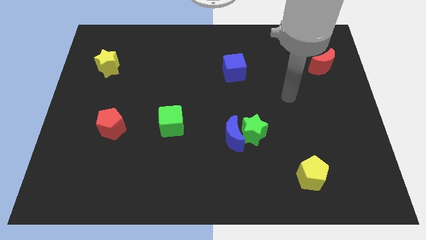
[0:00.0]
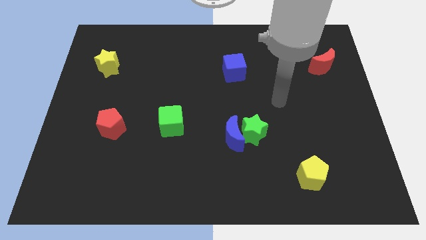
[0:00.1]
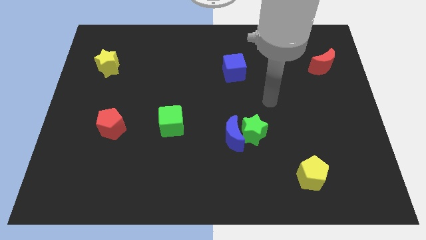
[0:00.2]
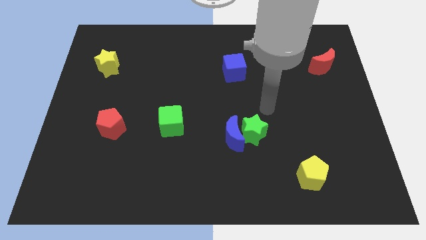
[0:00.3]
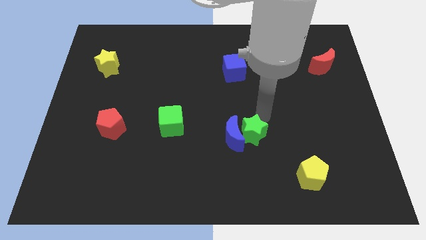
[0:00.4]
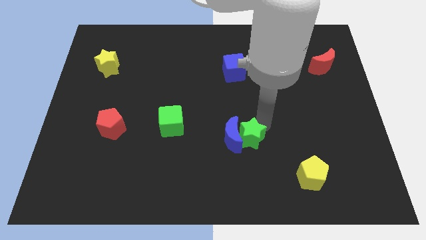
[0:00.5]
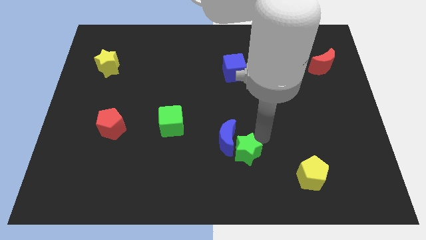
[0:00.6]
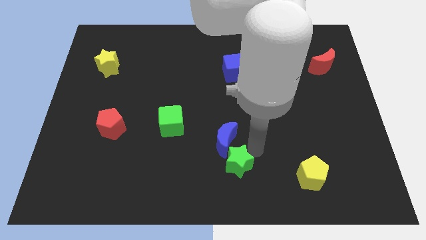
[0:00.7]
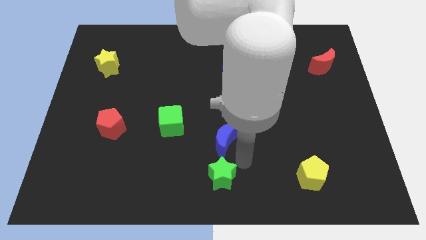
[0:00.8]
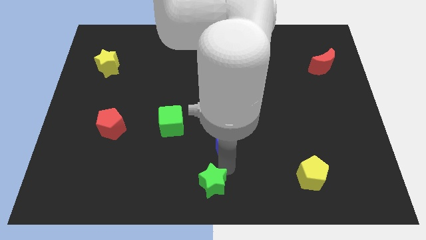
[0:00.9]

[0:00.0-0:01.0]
move the blue moon away from the green star

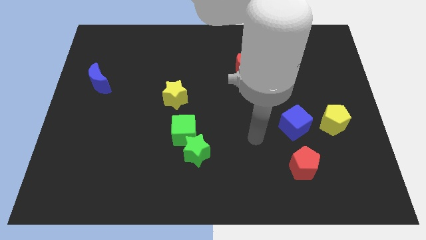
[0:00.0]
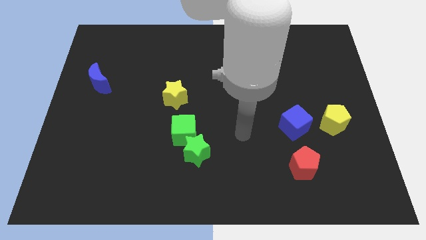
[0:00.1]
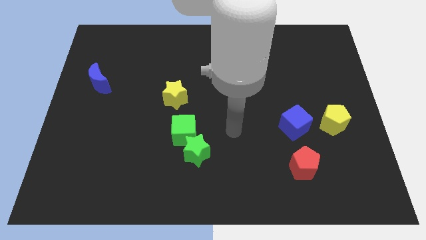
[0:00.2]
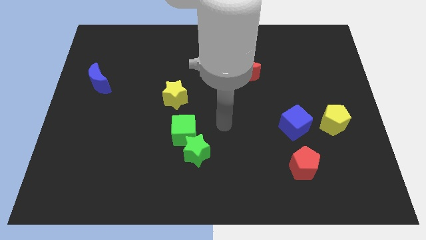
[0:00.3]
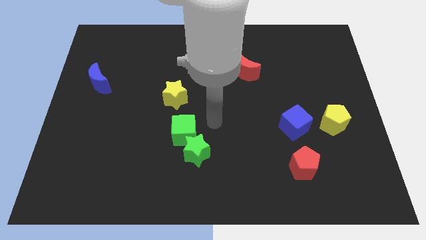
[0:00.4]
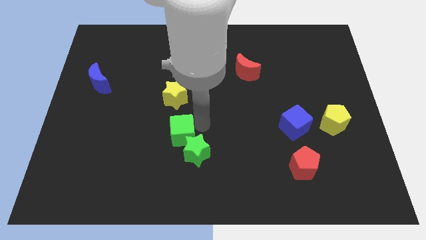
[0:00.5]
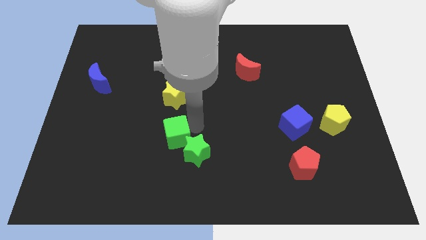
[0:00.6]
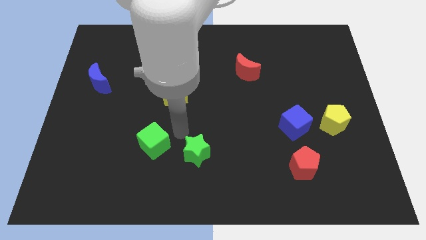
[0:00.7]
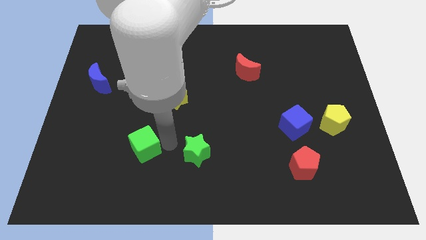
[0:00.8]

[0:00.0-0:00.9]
move the green star away from the green cube

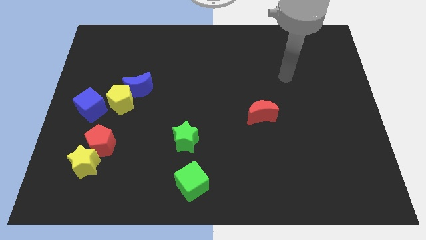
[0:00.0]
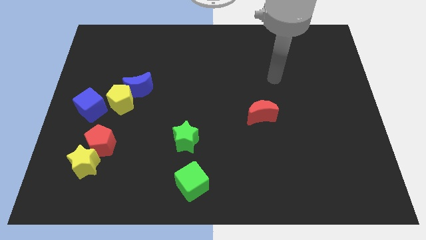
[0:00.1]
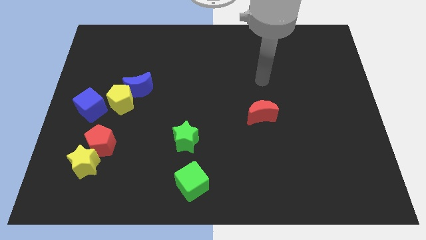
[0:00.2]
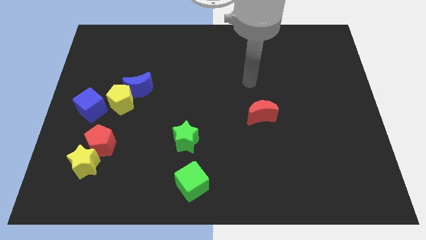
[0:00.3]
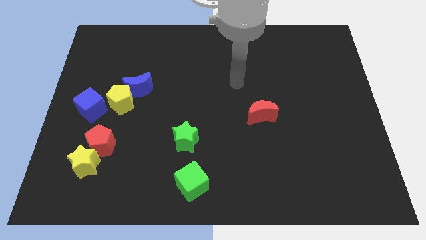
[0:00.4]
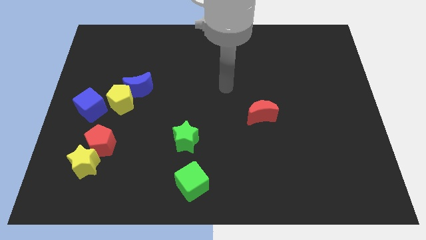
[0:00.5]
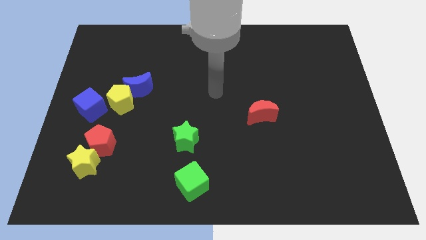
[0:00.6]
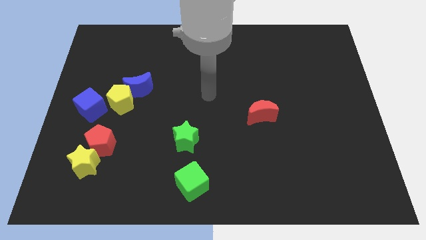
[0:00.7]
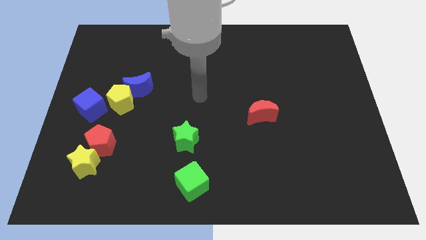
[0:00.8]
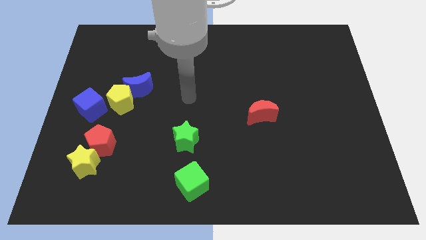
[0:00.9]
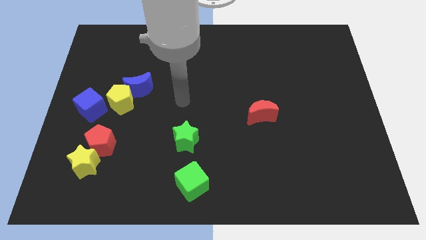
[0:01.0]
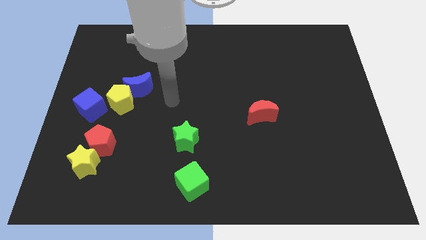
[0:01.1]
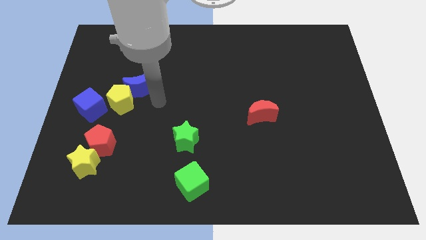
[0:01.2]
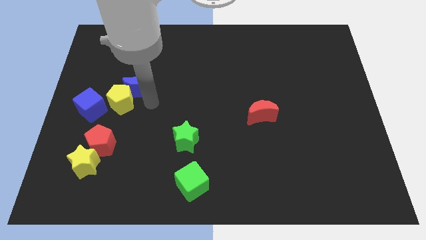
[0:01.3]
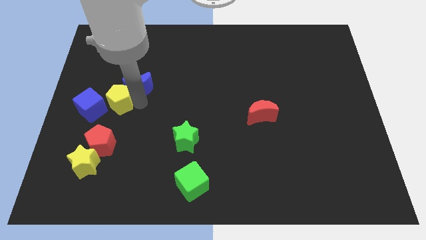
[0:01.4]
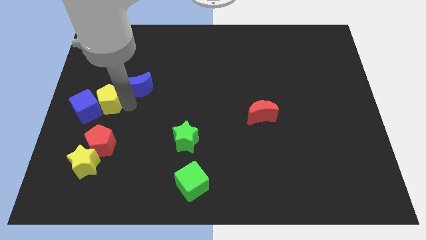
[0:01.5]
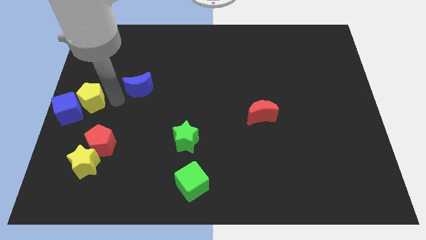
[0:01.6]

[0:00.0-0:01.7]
separate the blue moon from the yellow pentagon

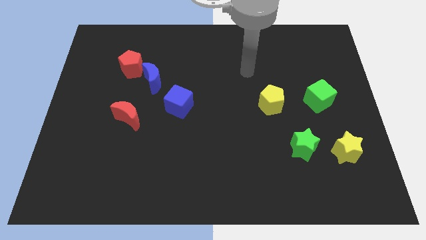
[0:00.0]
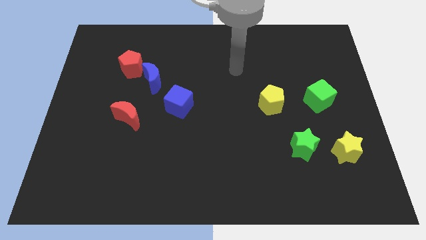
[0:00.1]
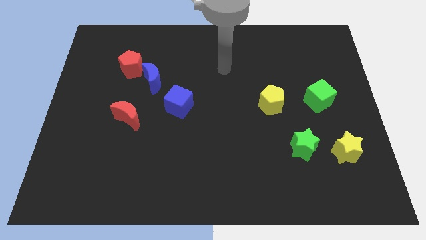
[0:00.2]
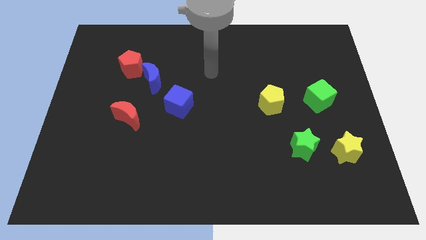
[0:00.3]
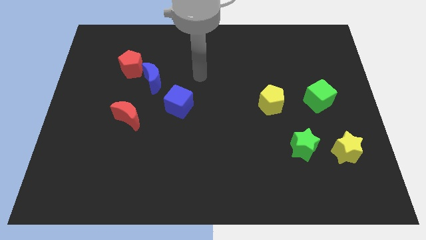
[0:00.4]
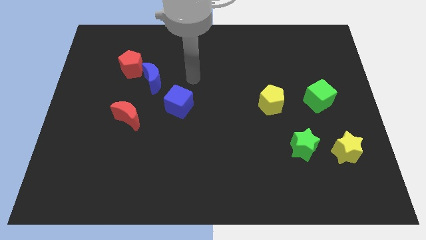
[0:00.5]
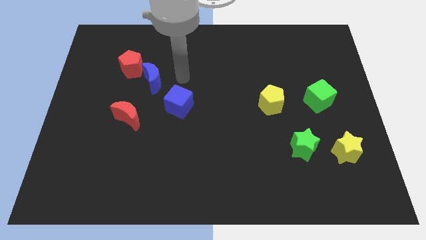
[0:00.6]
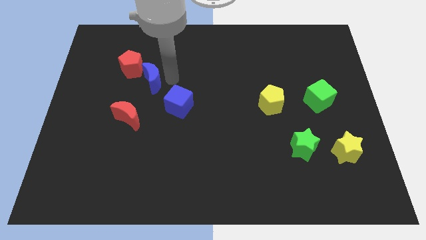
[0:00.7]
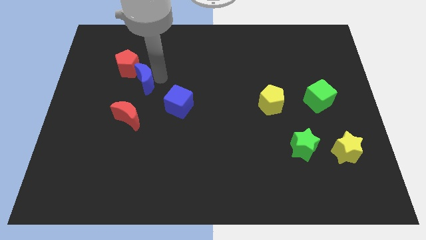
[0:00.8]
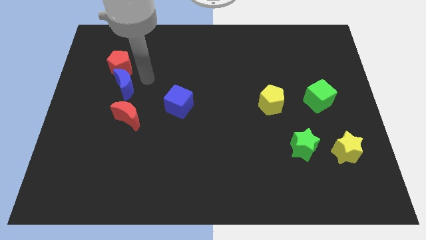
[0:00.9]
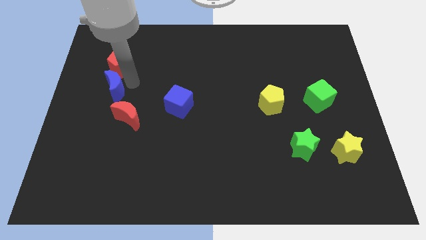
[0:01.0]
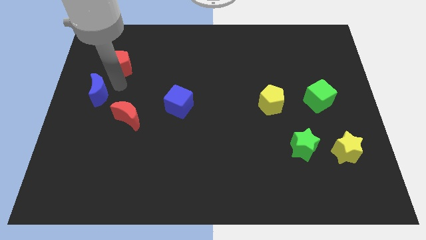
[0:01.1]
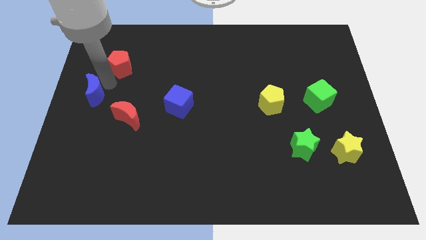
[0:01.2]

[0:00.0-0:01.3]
move the red pentagon away from the blue moon

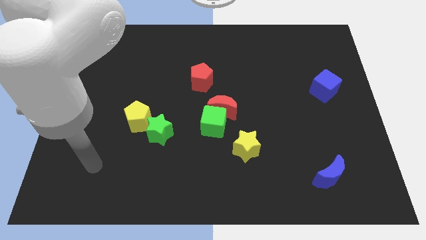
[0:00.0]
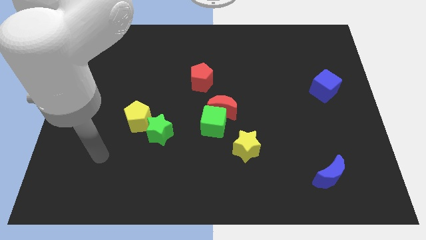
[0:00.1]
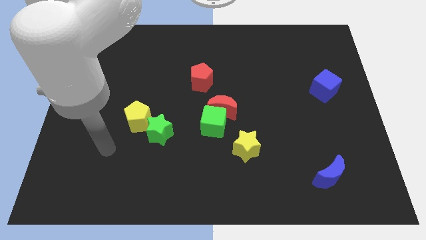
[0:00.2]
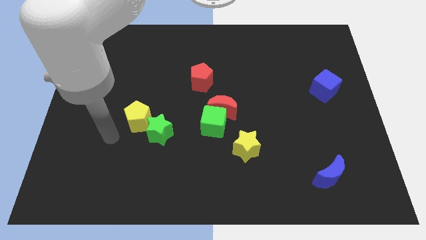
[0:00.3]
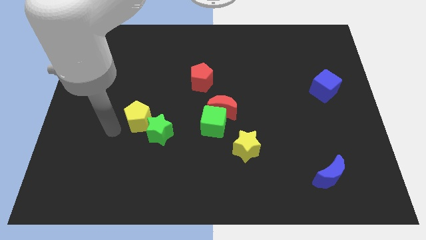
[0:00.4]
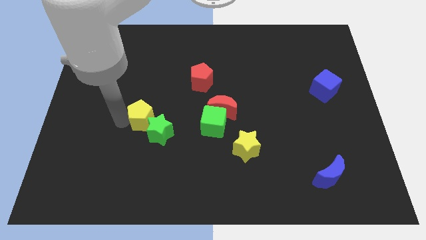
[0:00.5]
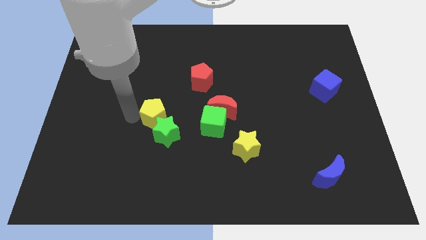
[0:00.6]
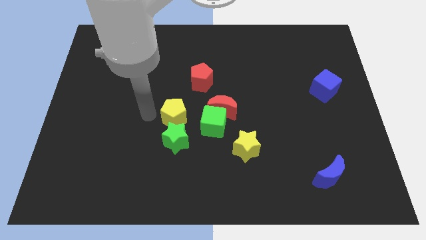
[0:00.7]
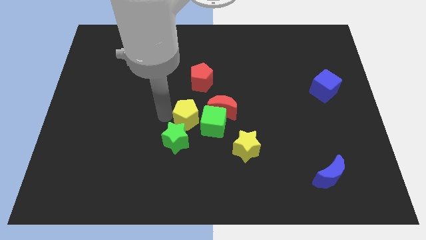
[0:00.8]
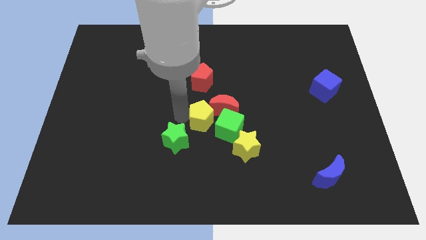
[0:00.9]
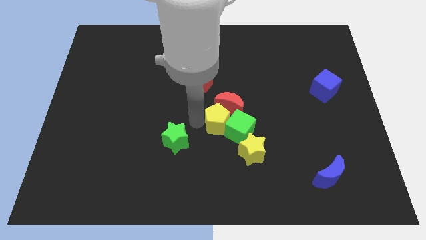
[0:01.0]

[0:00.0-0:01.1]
separate the green star from the yellow pentagon

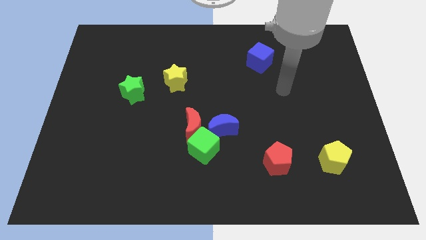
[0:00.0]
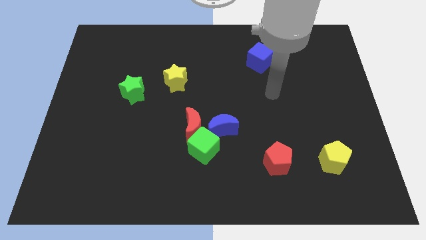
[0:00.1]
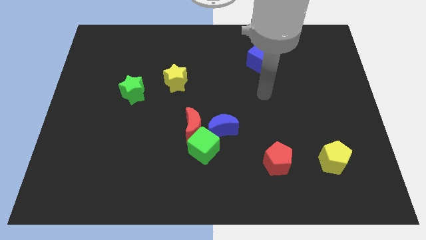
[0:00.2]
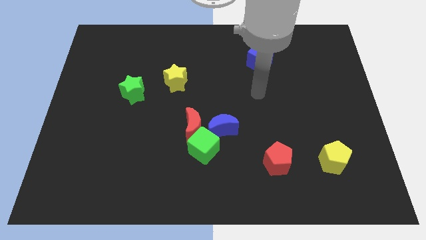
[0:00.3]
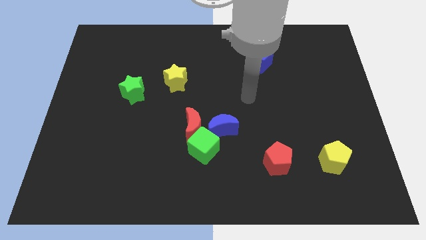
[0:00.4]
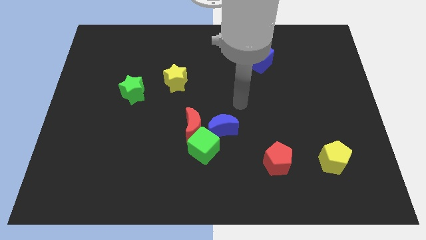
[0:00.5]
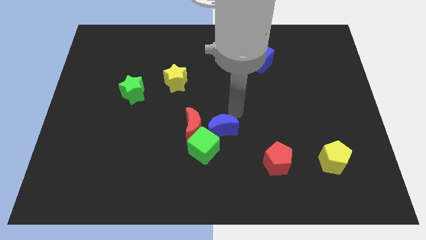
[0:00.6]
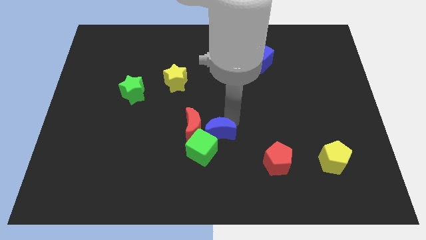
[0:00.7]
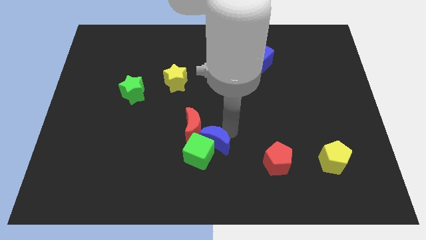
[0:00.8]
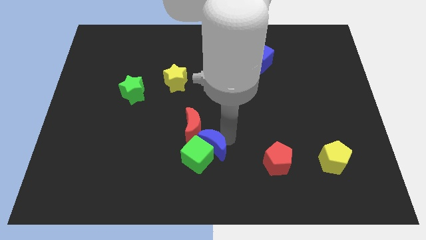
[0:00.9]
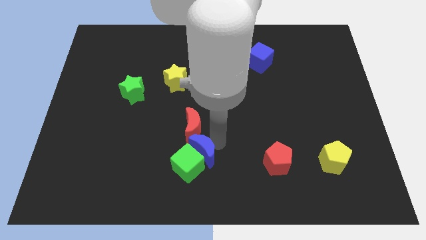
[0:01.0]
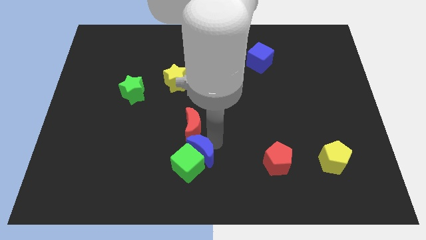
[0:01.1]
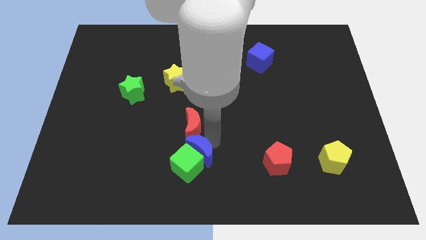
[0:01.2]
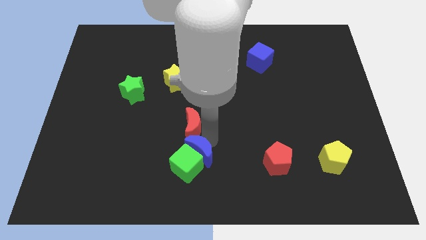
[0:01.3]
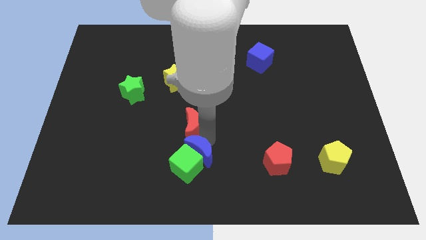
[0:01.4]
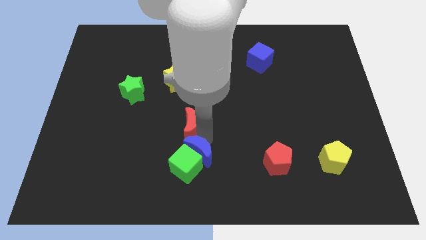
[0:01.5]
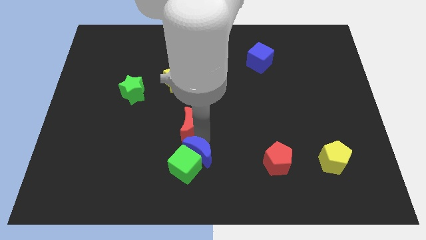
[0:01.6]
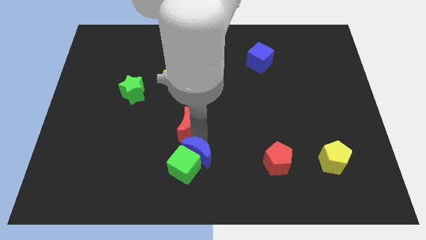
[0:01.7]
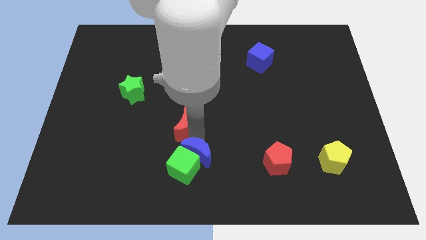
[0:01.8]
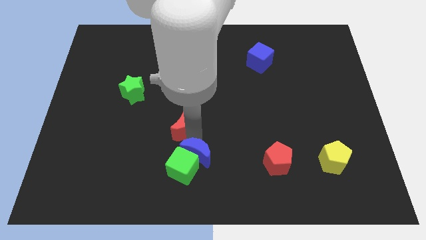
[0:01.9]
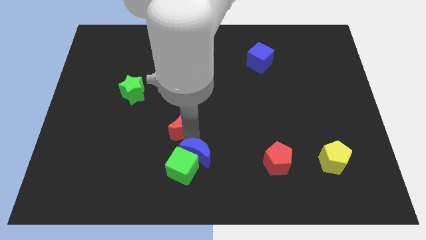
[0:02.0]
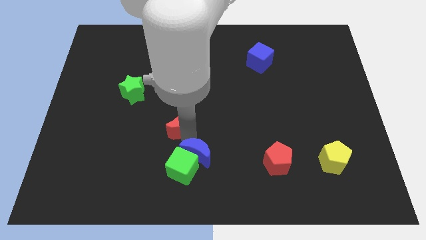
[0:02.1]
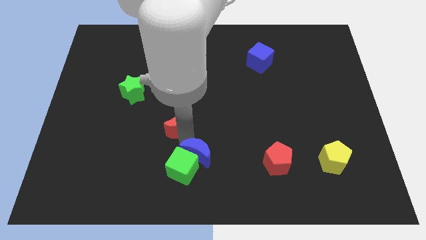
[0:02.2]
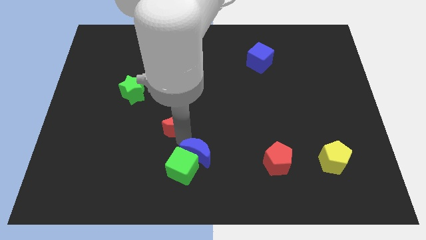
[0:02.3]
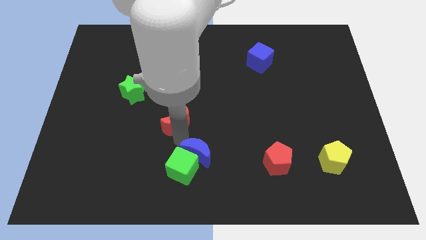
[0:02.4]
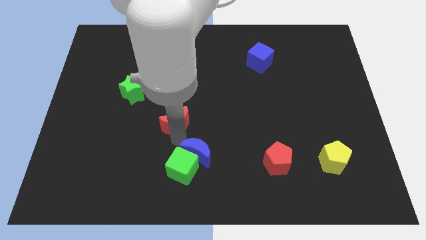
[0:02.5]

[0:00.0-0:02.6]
separate the red moon from the green cube and blue moon

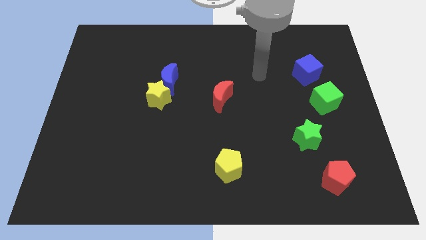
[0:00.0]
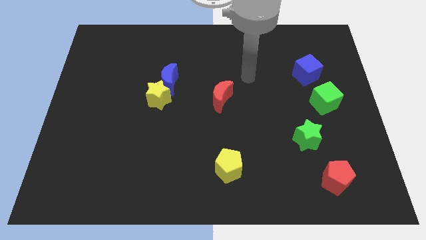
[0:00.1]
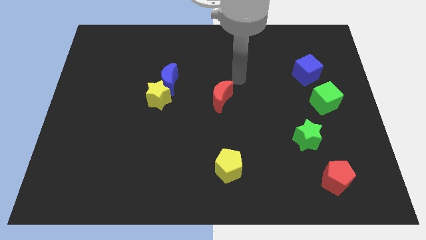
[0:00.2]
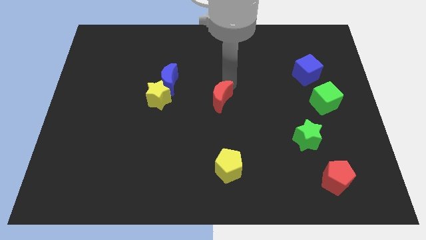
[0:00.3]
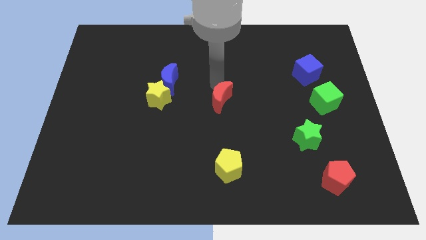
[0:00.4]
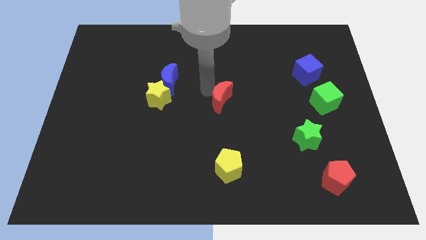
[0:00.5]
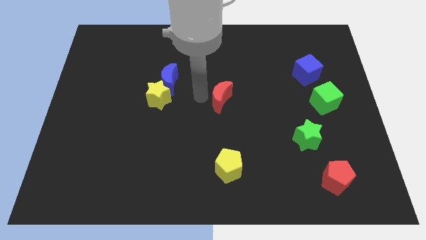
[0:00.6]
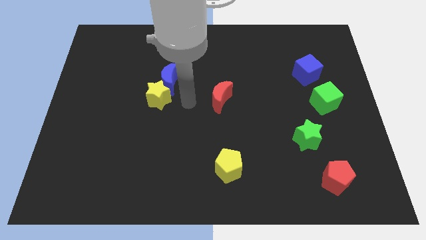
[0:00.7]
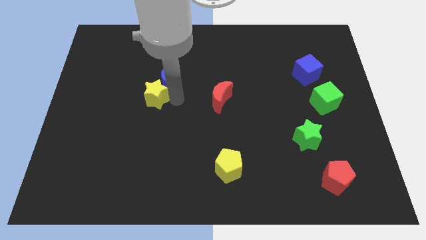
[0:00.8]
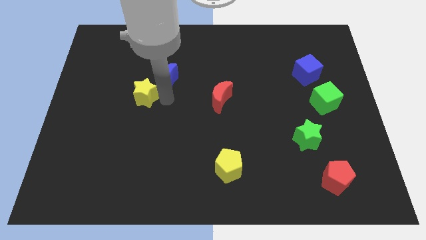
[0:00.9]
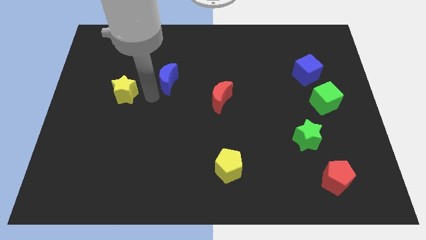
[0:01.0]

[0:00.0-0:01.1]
separate the blue moon from the yellow star
